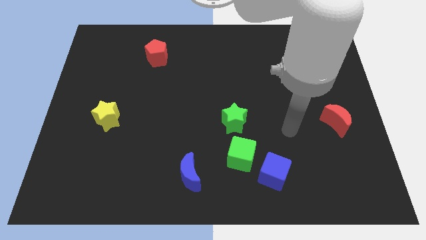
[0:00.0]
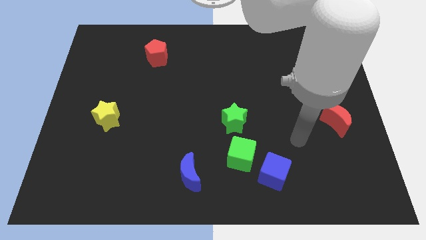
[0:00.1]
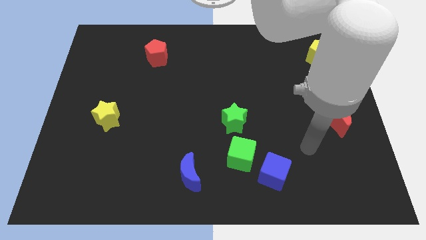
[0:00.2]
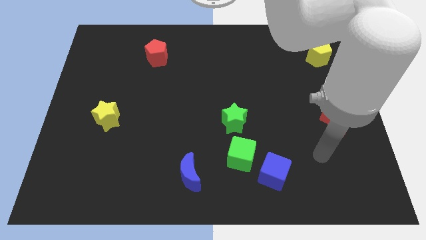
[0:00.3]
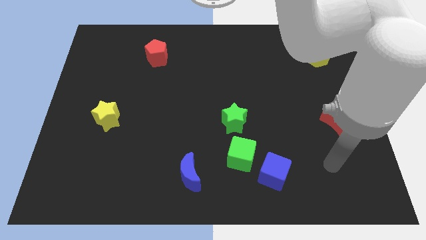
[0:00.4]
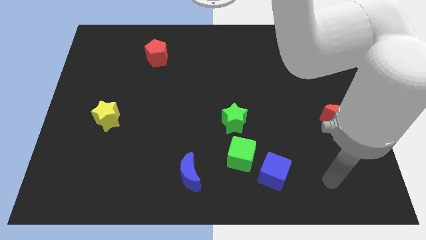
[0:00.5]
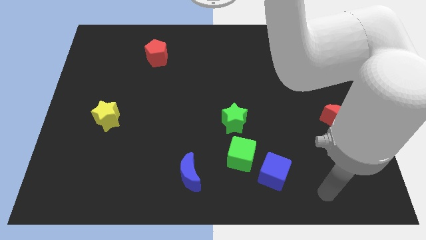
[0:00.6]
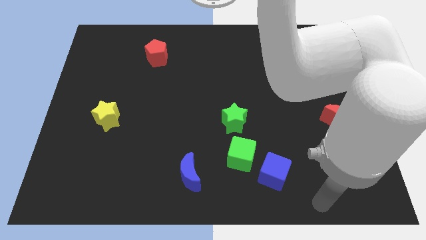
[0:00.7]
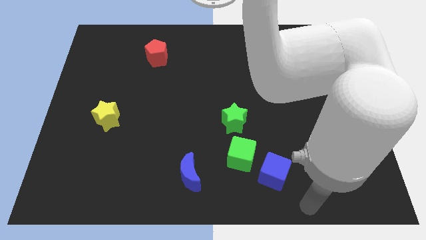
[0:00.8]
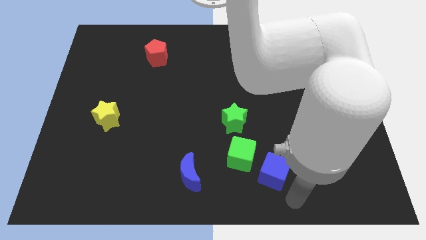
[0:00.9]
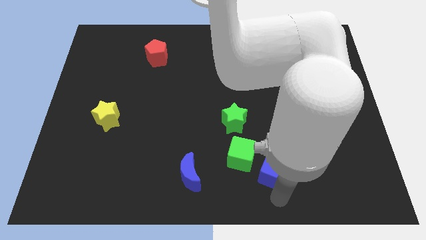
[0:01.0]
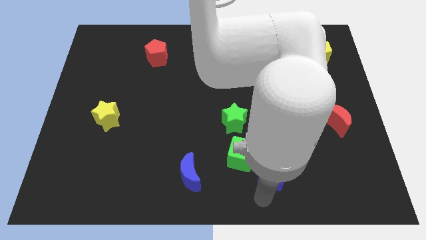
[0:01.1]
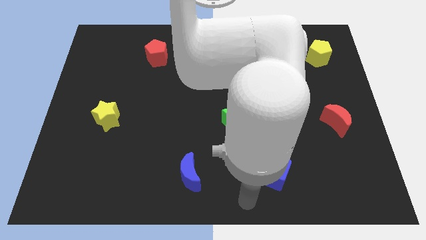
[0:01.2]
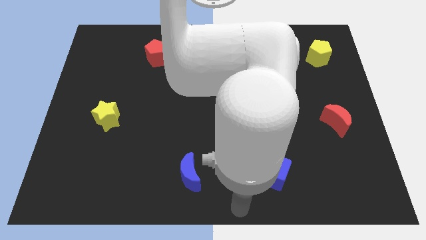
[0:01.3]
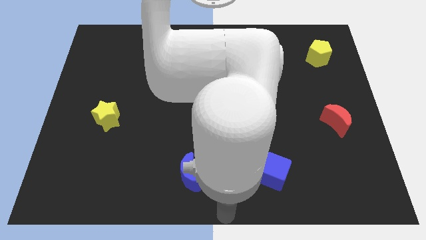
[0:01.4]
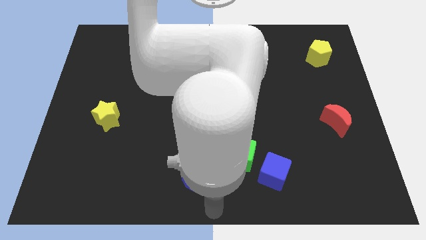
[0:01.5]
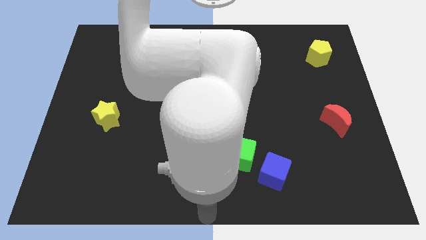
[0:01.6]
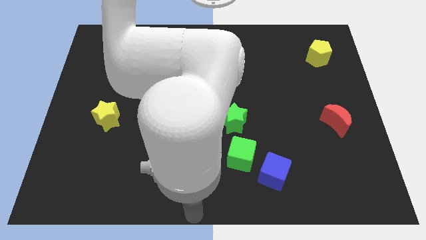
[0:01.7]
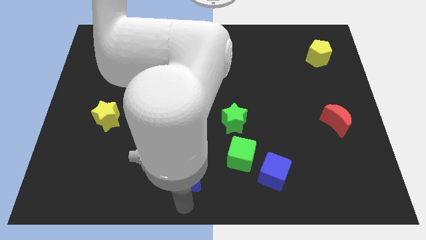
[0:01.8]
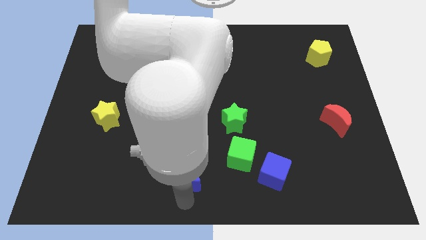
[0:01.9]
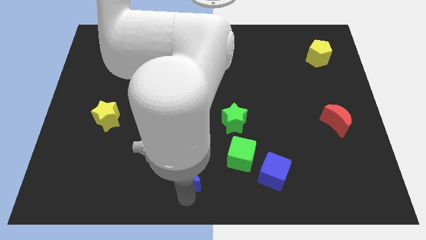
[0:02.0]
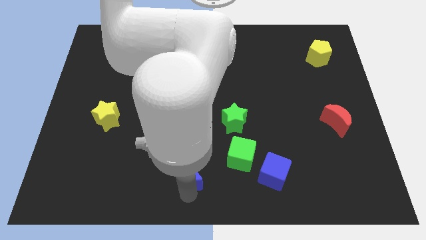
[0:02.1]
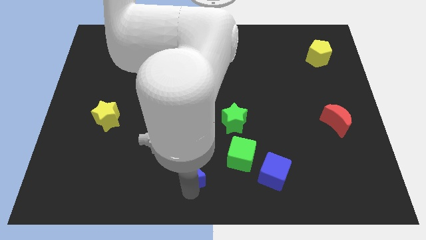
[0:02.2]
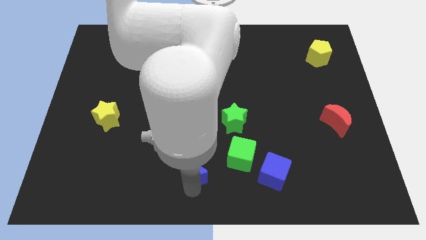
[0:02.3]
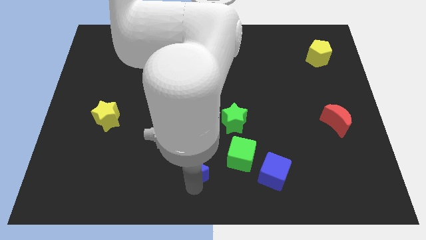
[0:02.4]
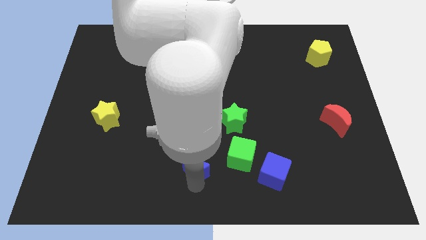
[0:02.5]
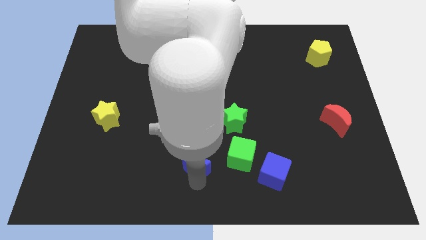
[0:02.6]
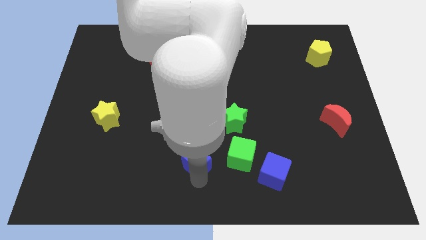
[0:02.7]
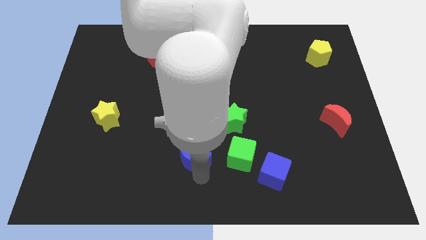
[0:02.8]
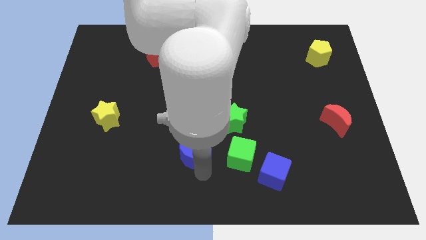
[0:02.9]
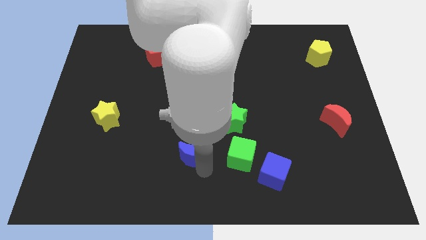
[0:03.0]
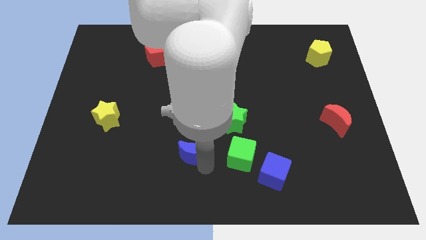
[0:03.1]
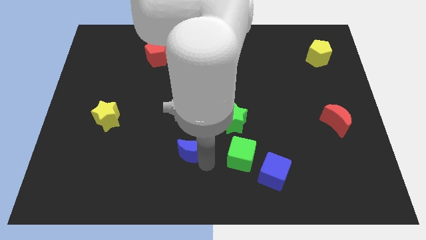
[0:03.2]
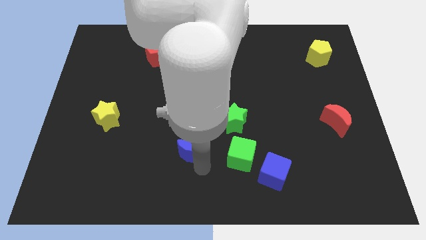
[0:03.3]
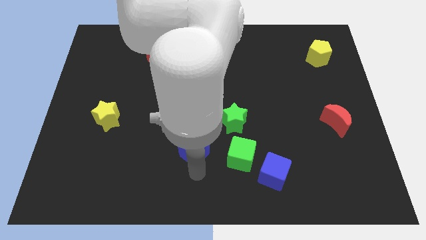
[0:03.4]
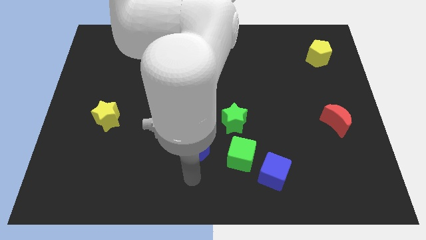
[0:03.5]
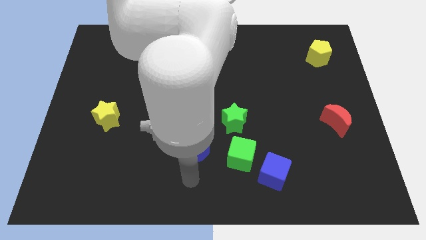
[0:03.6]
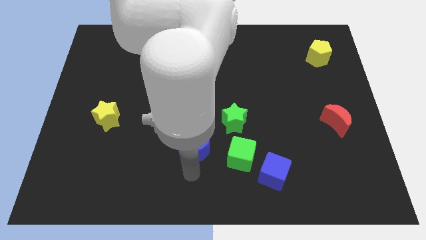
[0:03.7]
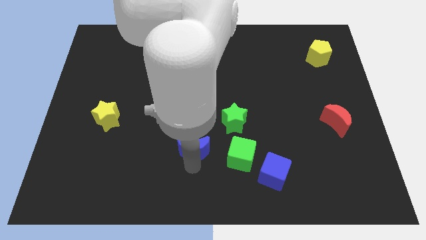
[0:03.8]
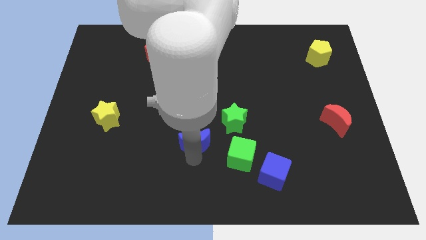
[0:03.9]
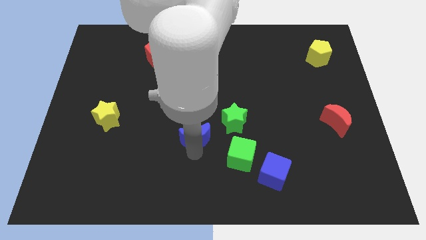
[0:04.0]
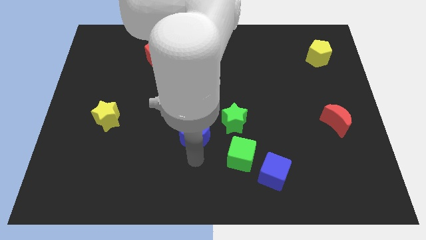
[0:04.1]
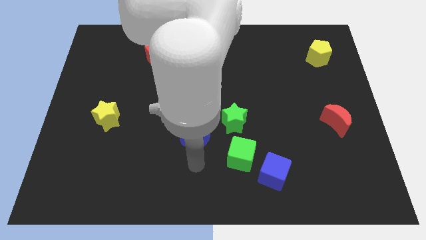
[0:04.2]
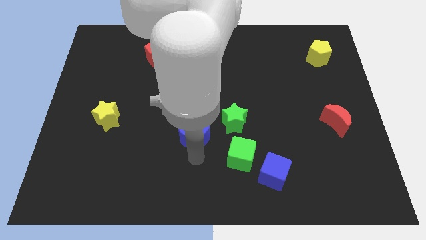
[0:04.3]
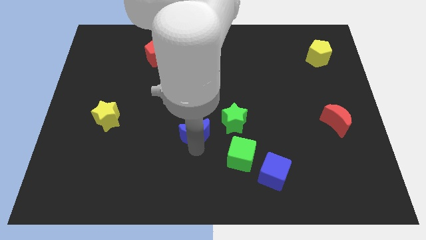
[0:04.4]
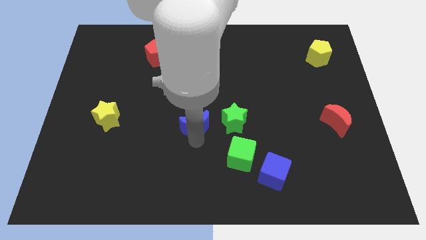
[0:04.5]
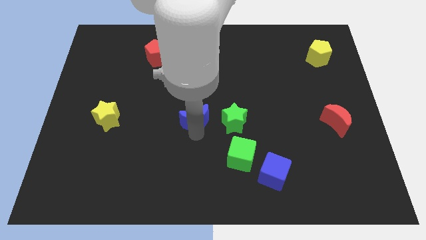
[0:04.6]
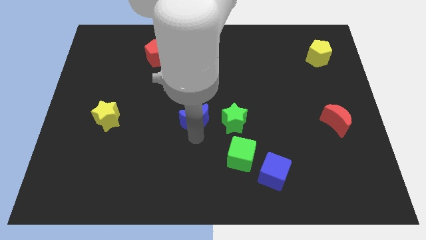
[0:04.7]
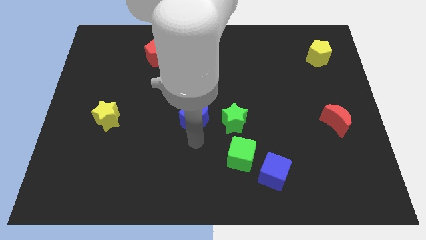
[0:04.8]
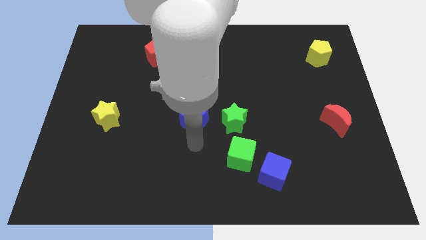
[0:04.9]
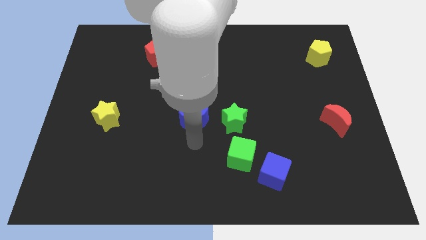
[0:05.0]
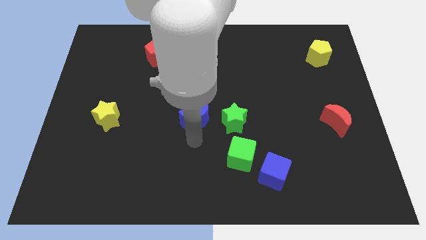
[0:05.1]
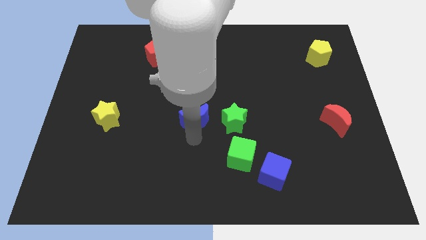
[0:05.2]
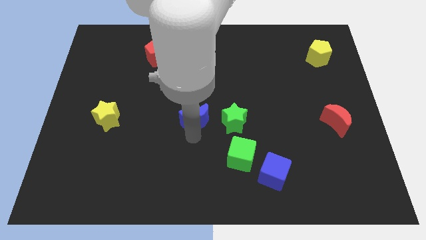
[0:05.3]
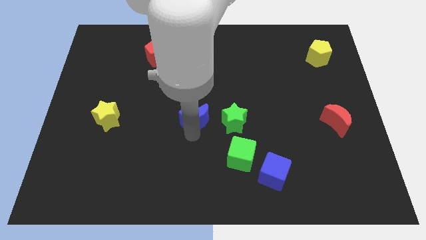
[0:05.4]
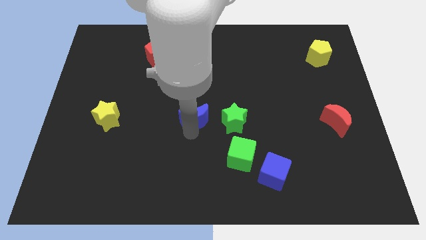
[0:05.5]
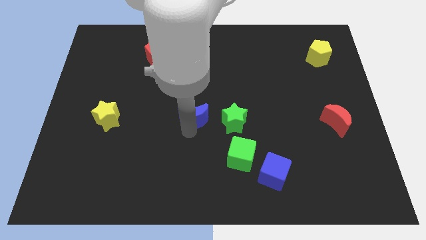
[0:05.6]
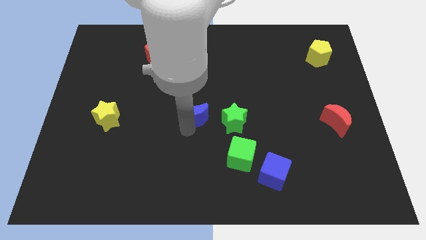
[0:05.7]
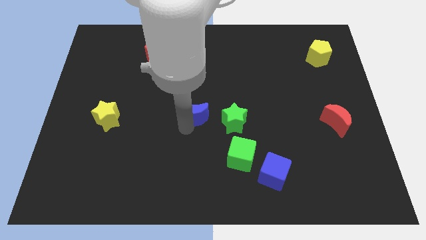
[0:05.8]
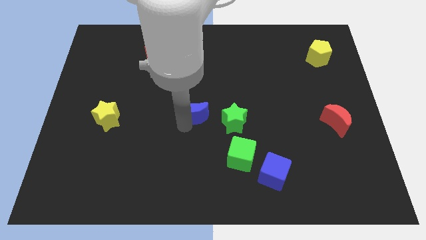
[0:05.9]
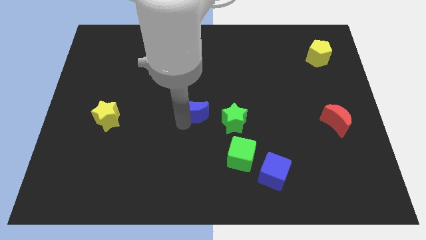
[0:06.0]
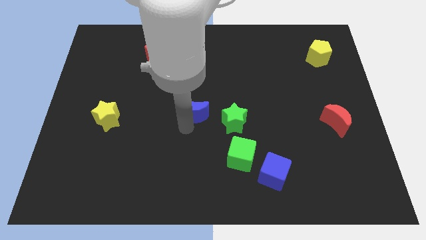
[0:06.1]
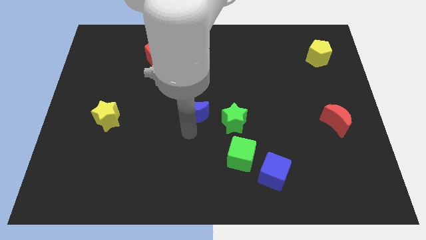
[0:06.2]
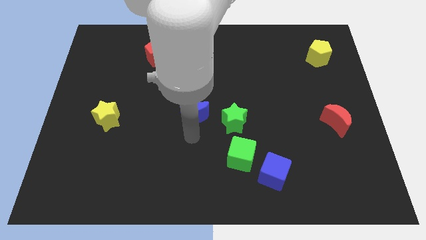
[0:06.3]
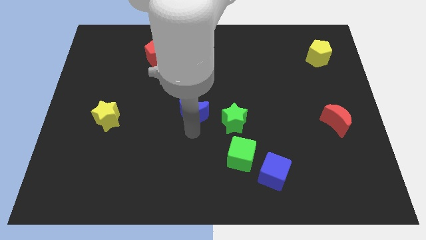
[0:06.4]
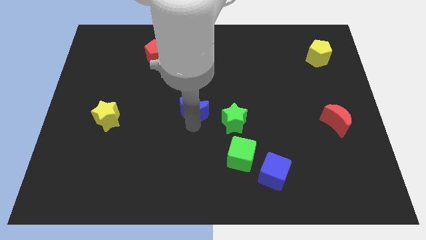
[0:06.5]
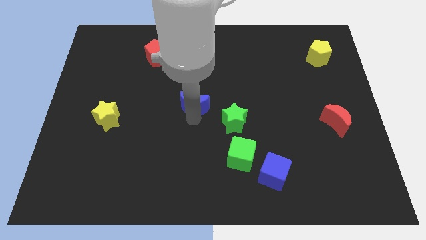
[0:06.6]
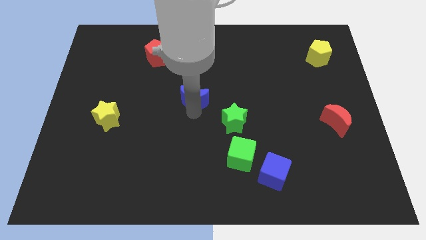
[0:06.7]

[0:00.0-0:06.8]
push the blue moon upwards

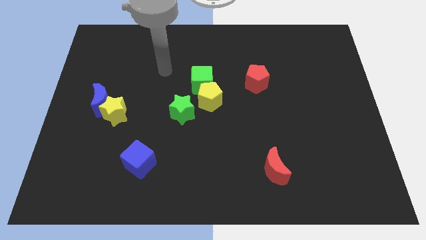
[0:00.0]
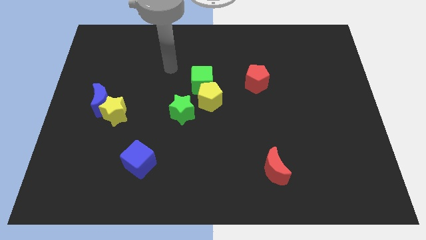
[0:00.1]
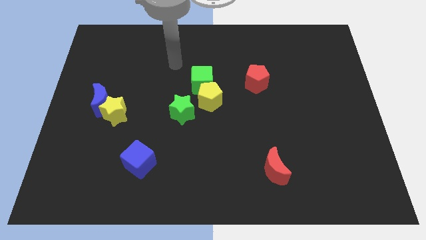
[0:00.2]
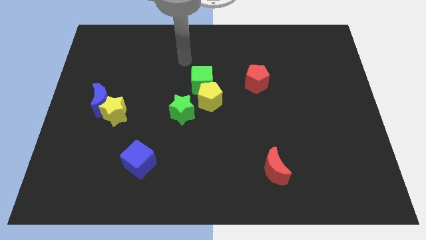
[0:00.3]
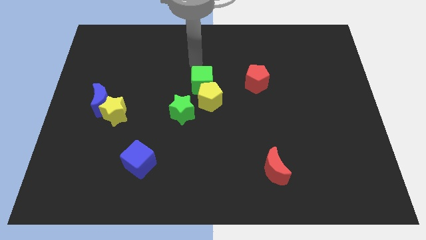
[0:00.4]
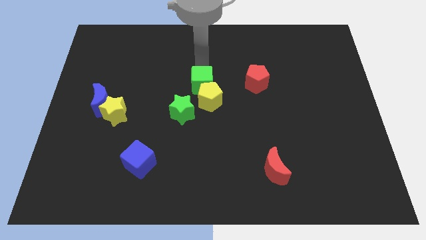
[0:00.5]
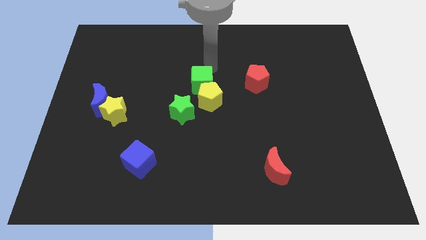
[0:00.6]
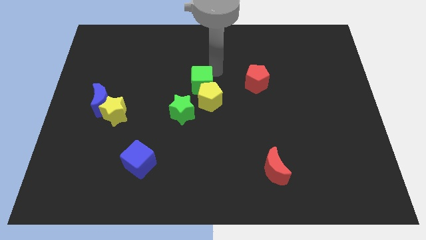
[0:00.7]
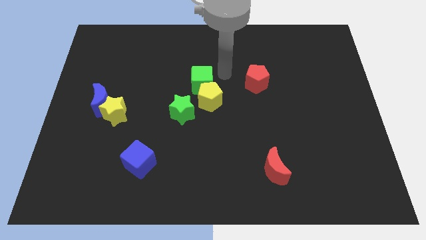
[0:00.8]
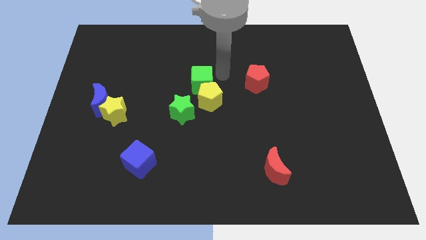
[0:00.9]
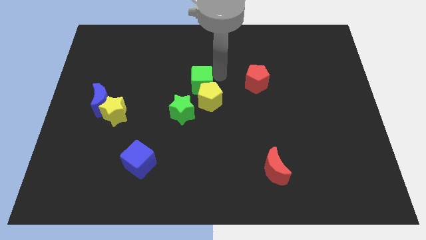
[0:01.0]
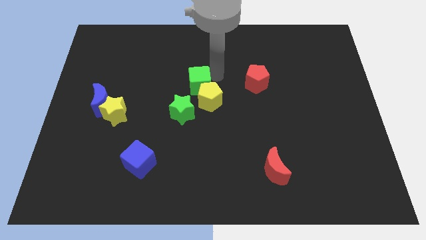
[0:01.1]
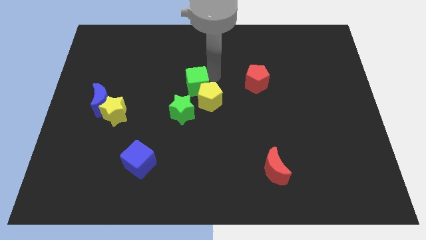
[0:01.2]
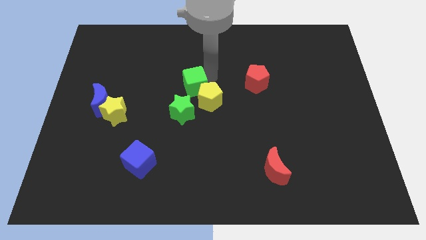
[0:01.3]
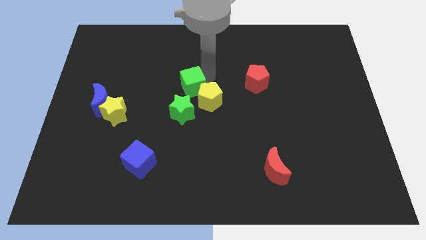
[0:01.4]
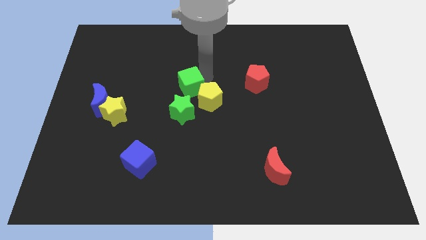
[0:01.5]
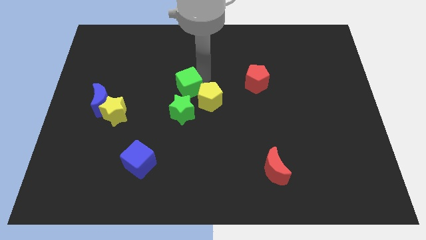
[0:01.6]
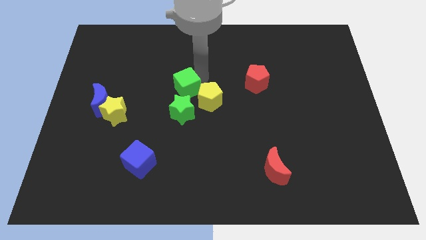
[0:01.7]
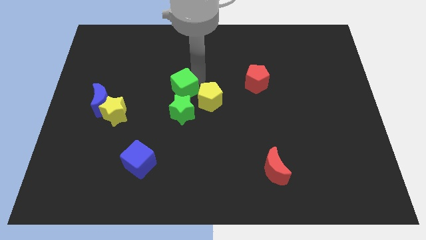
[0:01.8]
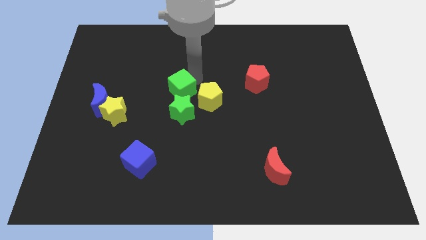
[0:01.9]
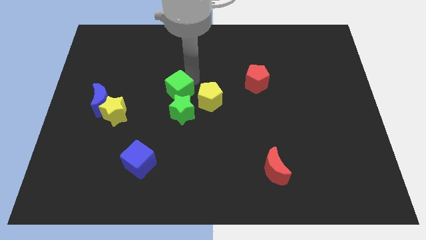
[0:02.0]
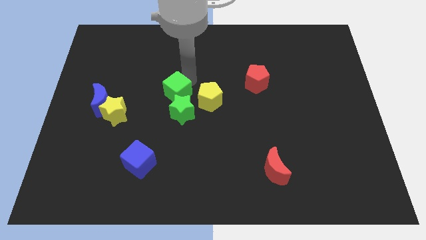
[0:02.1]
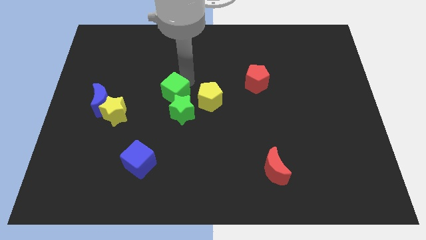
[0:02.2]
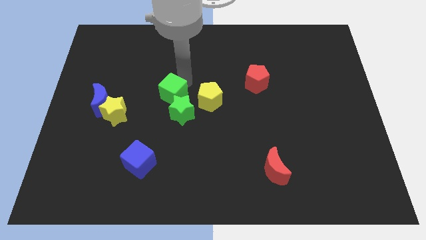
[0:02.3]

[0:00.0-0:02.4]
slightly slide the green cube down and then left
